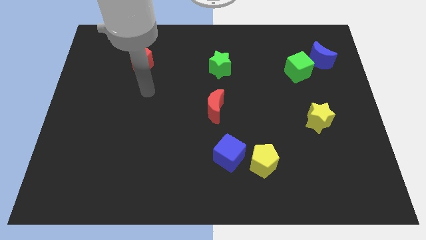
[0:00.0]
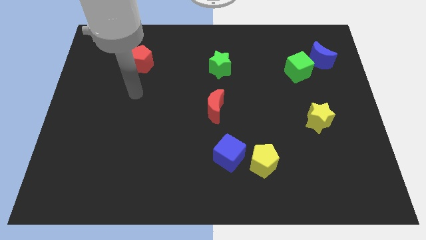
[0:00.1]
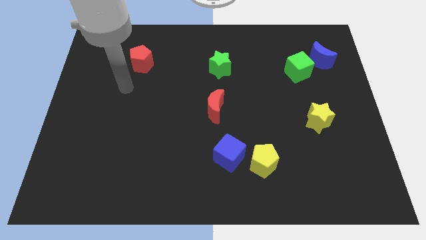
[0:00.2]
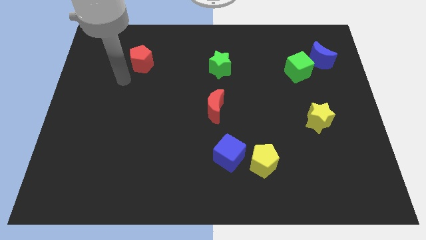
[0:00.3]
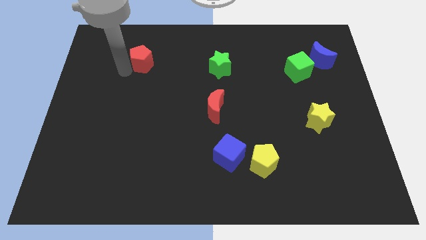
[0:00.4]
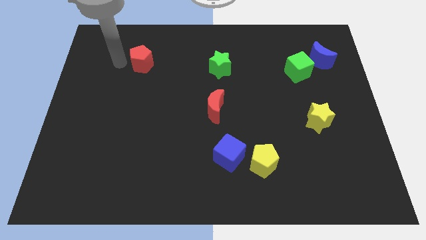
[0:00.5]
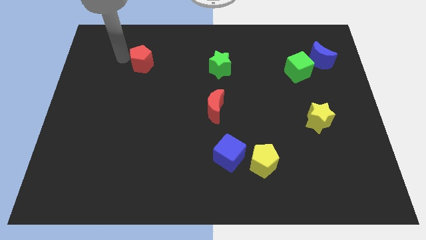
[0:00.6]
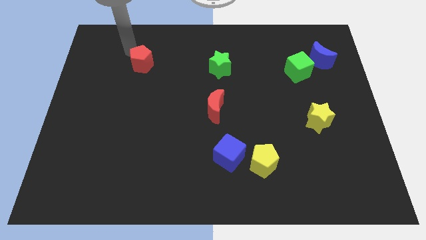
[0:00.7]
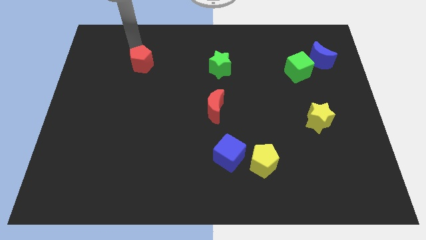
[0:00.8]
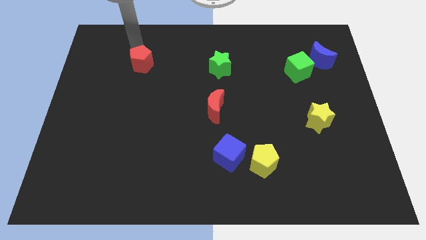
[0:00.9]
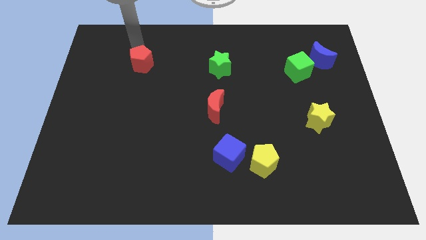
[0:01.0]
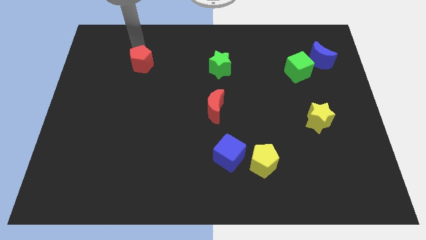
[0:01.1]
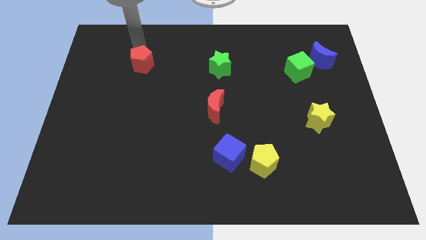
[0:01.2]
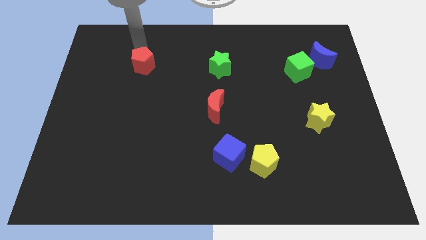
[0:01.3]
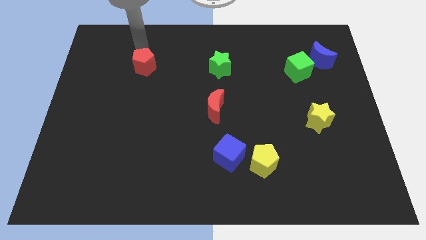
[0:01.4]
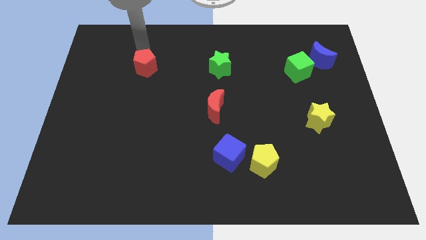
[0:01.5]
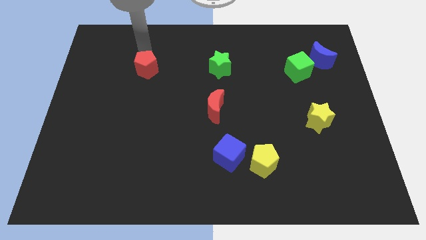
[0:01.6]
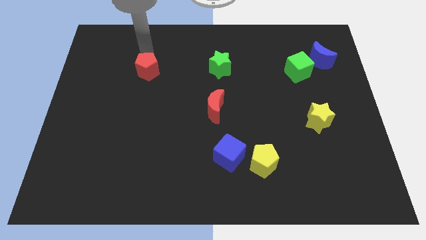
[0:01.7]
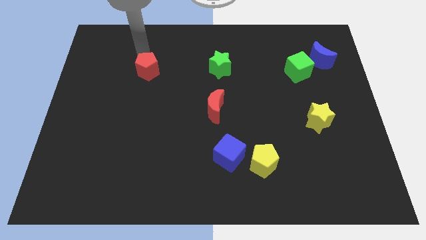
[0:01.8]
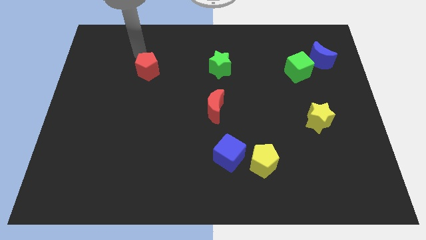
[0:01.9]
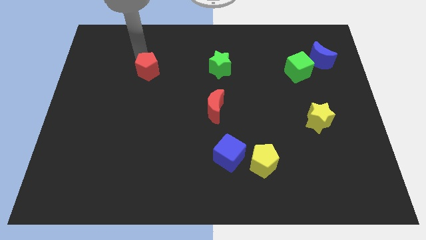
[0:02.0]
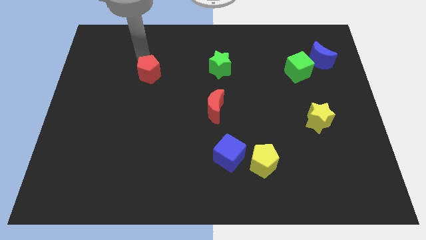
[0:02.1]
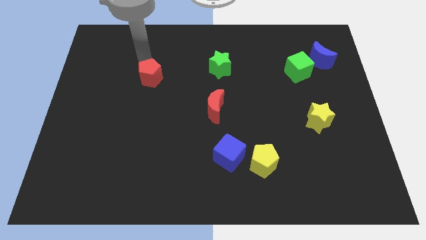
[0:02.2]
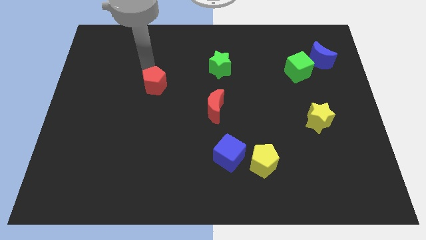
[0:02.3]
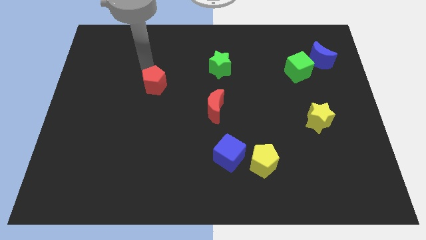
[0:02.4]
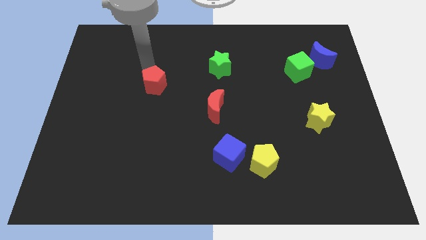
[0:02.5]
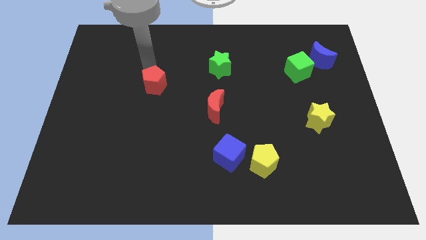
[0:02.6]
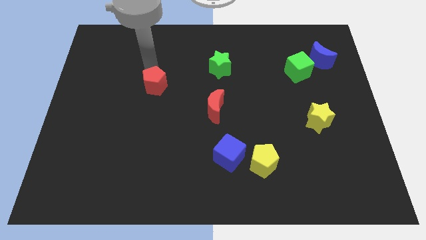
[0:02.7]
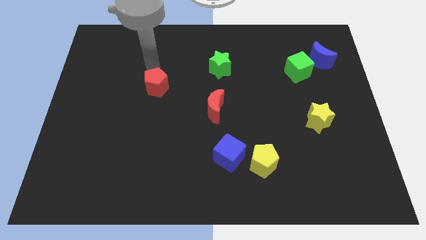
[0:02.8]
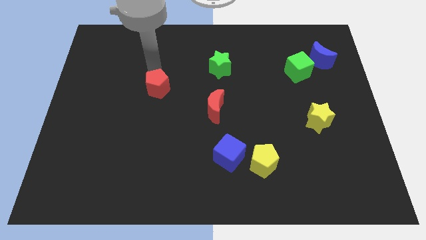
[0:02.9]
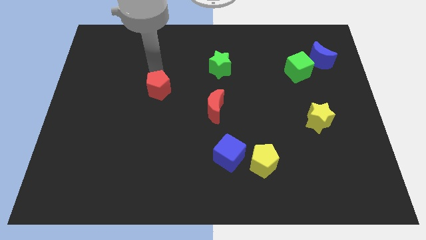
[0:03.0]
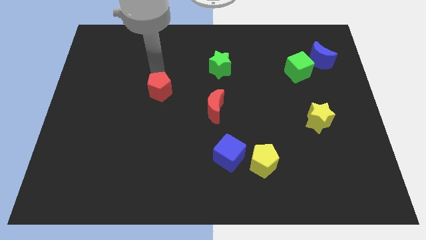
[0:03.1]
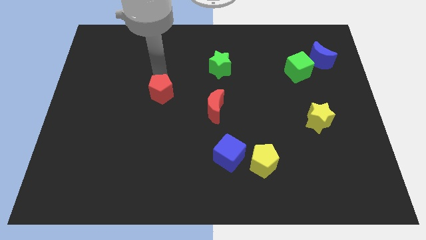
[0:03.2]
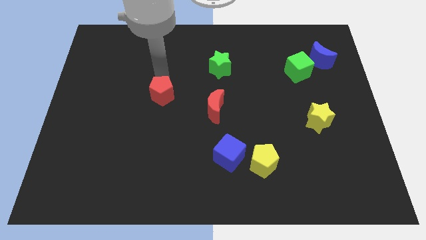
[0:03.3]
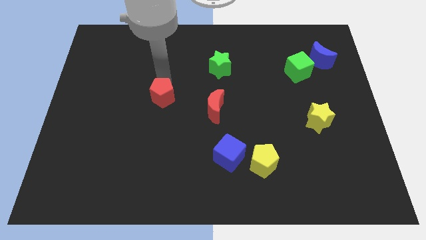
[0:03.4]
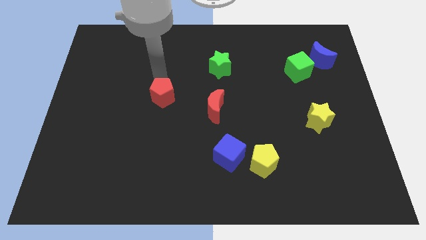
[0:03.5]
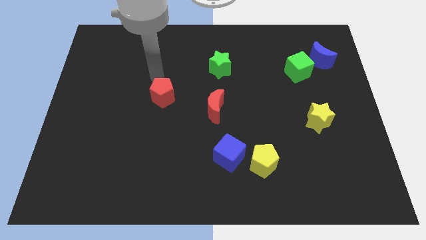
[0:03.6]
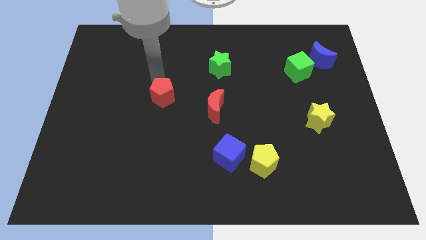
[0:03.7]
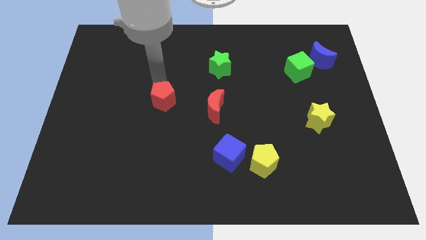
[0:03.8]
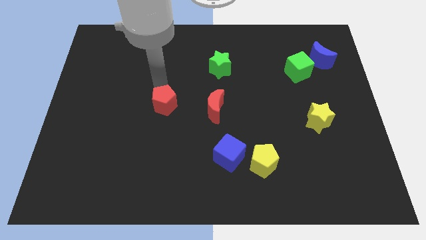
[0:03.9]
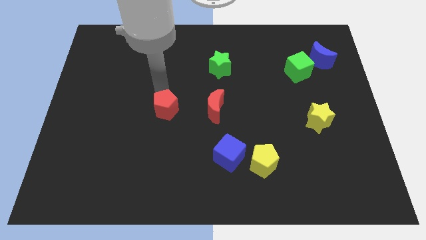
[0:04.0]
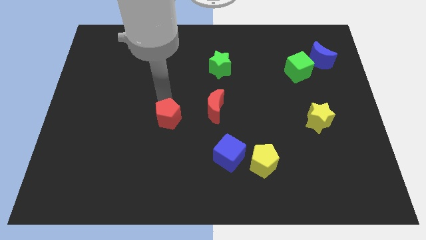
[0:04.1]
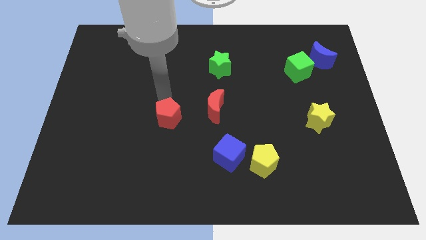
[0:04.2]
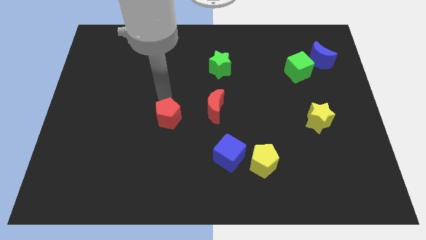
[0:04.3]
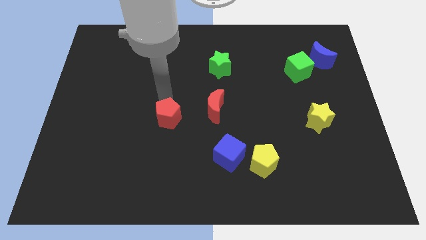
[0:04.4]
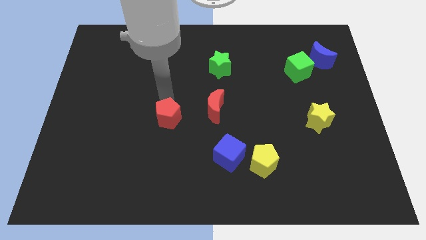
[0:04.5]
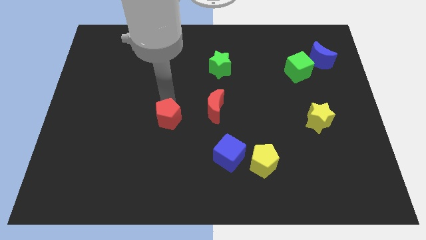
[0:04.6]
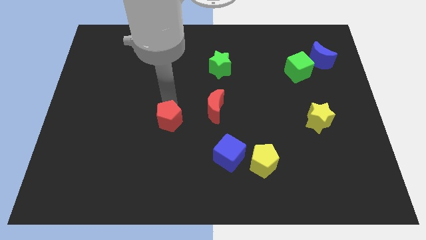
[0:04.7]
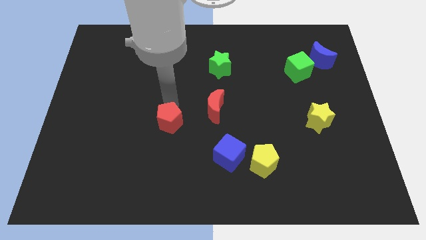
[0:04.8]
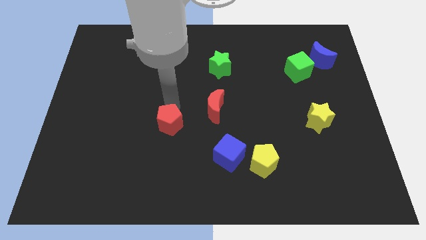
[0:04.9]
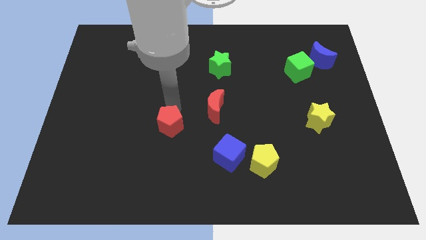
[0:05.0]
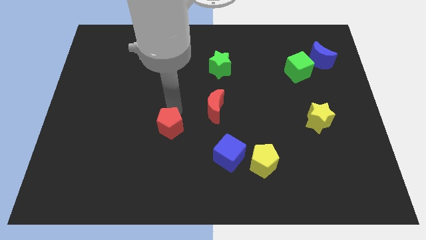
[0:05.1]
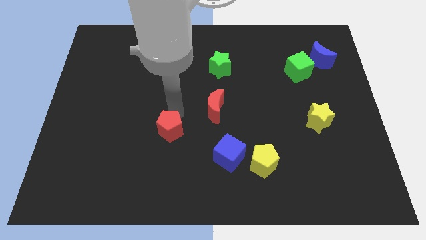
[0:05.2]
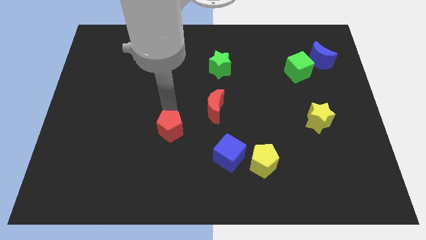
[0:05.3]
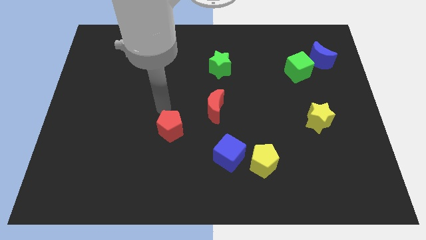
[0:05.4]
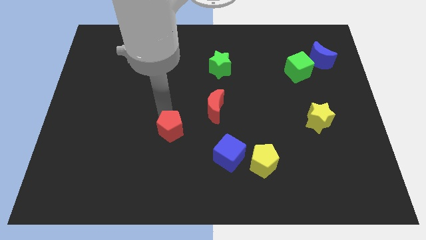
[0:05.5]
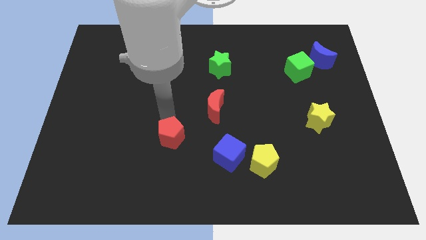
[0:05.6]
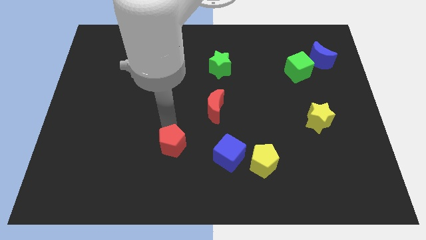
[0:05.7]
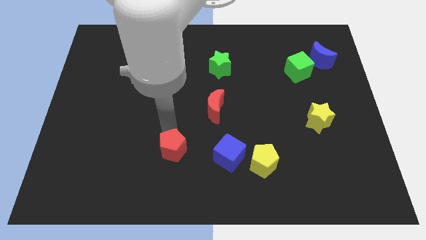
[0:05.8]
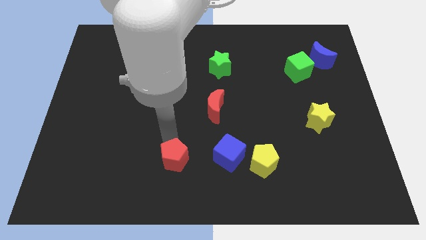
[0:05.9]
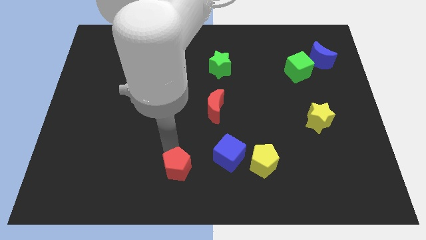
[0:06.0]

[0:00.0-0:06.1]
slide the red pentagon to the bottom

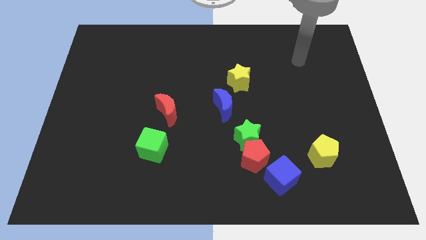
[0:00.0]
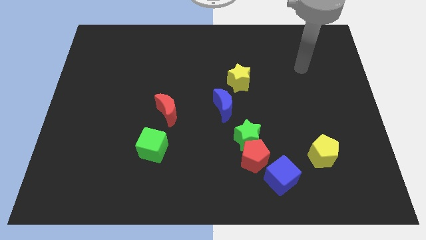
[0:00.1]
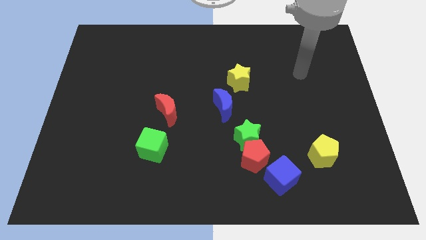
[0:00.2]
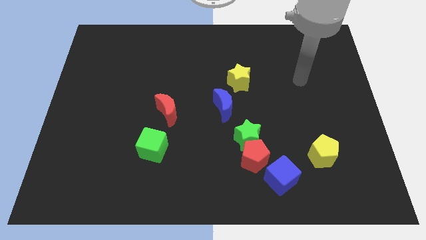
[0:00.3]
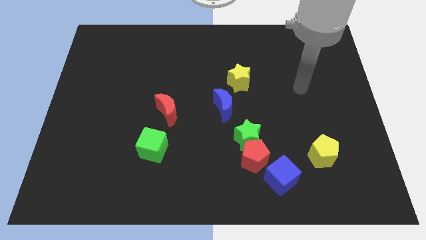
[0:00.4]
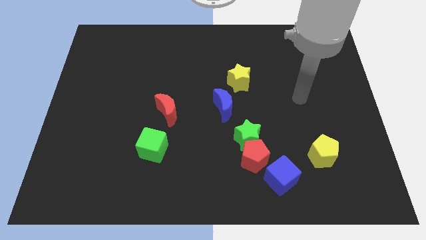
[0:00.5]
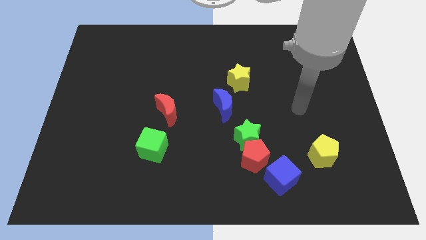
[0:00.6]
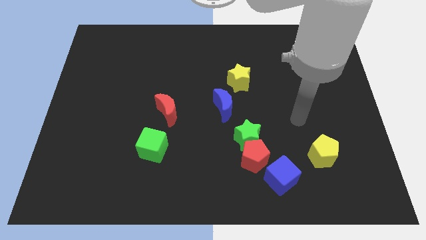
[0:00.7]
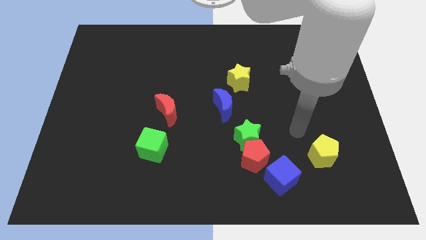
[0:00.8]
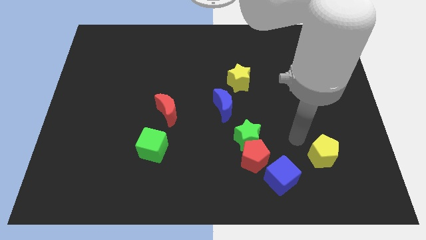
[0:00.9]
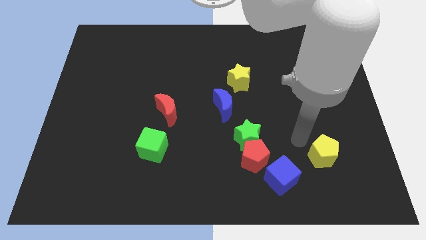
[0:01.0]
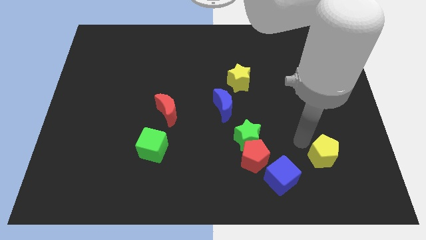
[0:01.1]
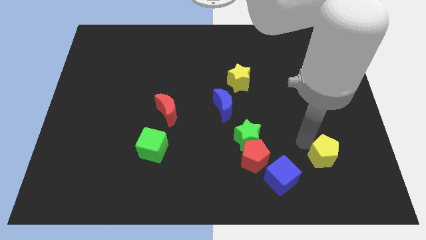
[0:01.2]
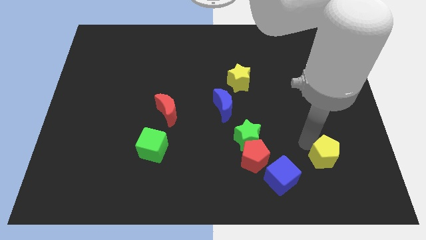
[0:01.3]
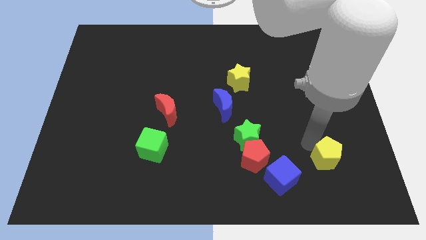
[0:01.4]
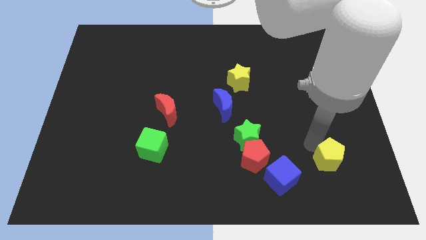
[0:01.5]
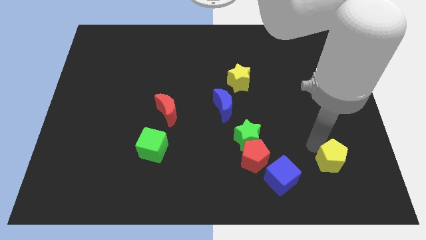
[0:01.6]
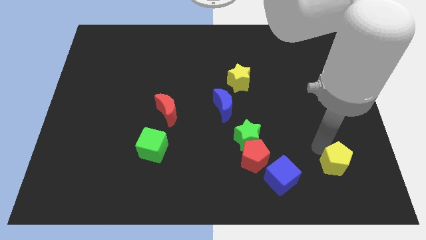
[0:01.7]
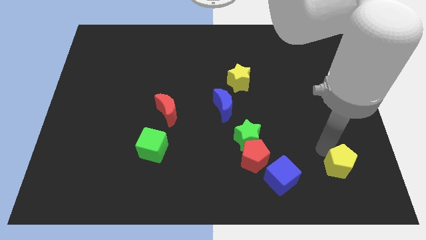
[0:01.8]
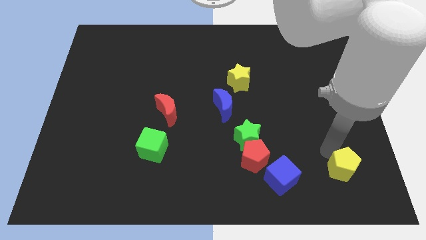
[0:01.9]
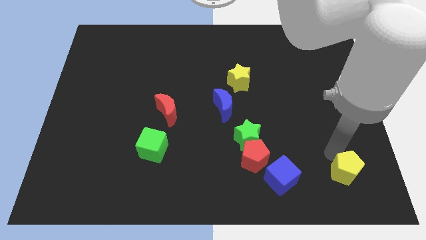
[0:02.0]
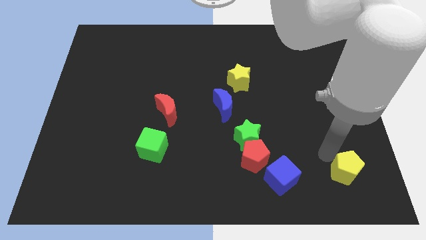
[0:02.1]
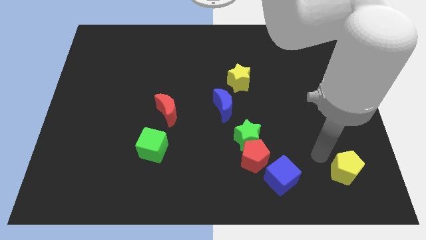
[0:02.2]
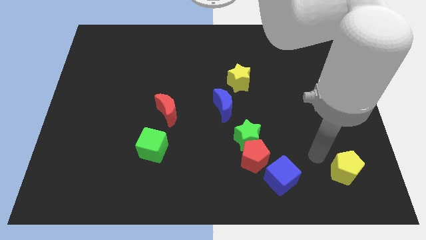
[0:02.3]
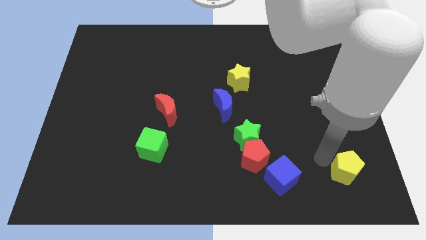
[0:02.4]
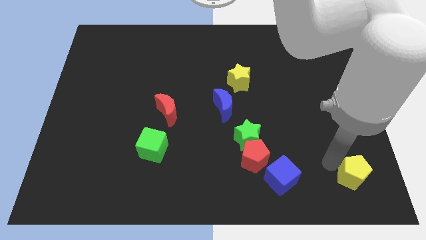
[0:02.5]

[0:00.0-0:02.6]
slide the yellow pentagon to the bottom right of the board
